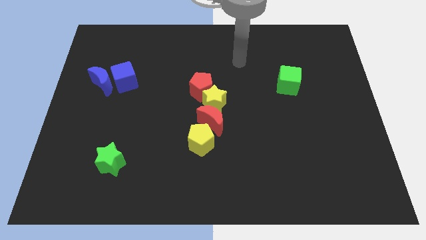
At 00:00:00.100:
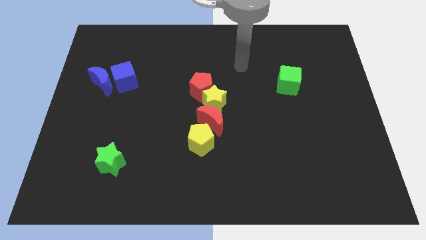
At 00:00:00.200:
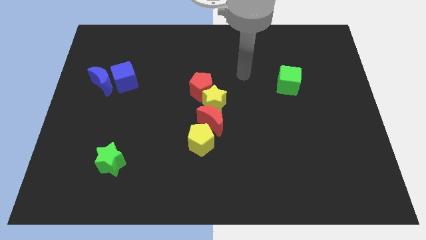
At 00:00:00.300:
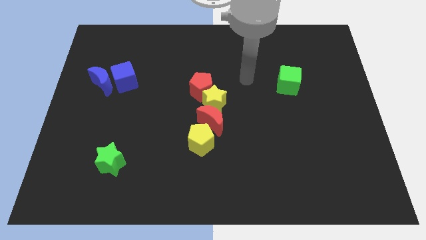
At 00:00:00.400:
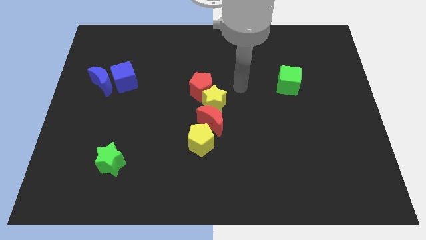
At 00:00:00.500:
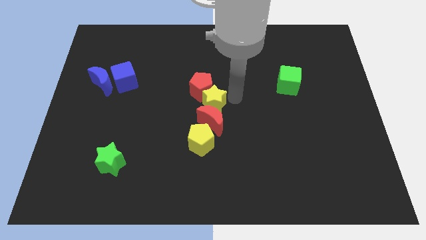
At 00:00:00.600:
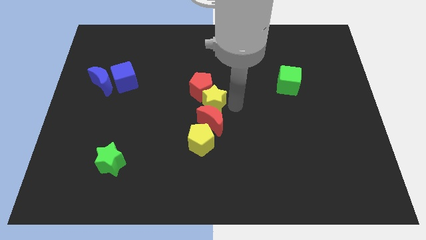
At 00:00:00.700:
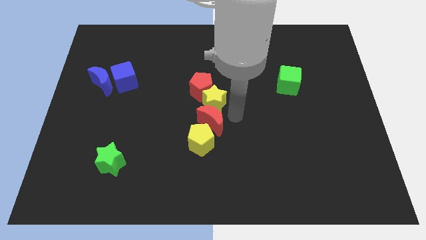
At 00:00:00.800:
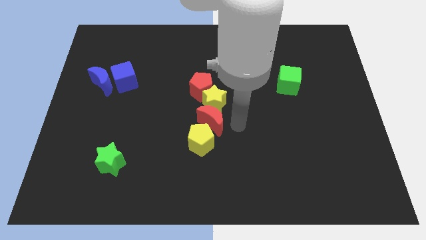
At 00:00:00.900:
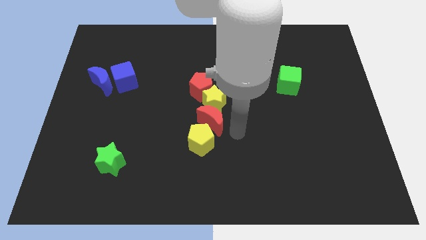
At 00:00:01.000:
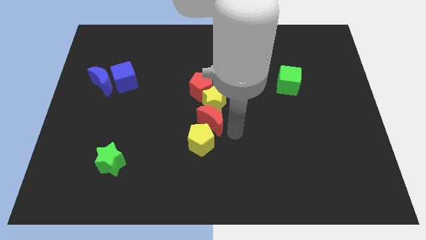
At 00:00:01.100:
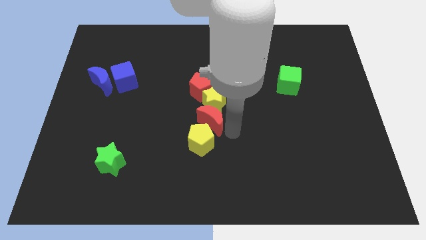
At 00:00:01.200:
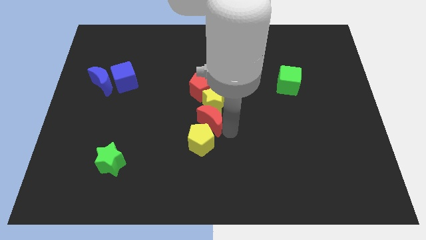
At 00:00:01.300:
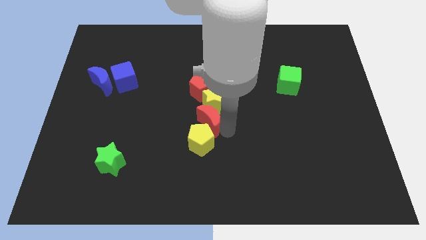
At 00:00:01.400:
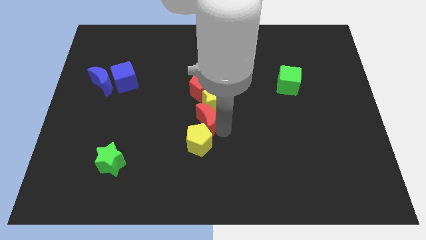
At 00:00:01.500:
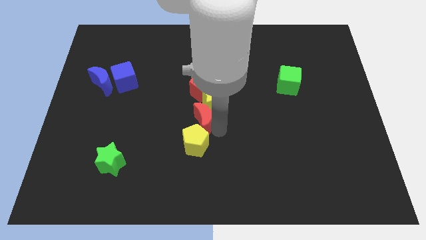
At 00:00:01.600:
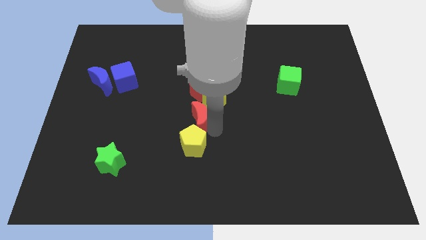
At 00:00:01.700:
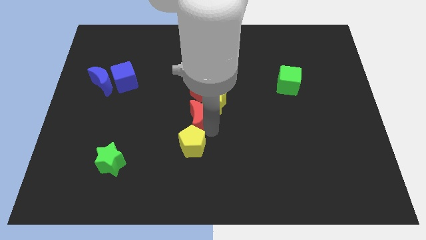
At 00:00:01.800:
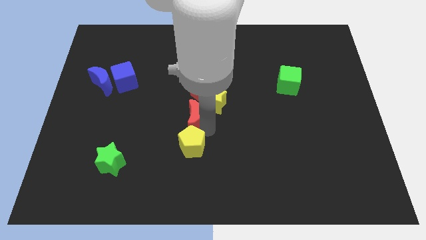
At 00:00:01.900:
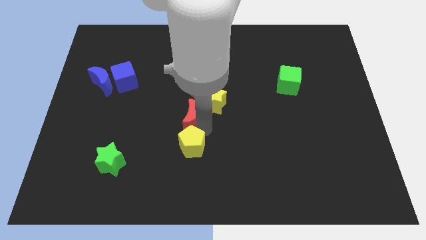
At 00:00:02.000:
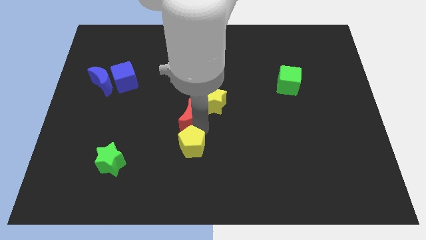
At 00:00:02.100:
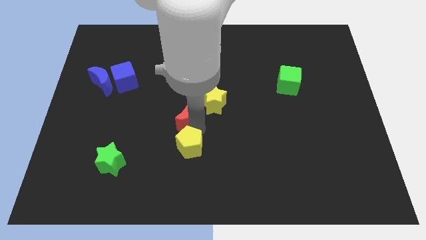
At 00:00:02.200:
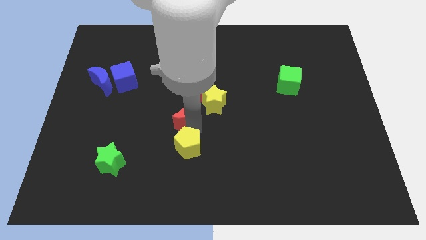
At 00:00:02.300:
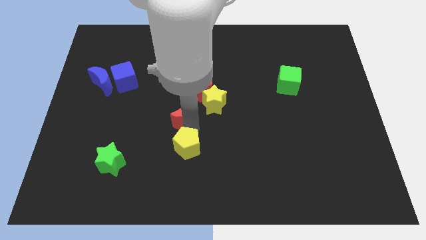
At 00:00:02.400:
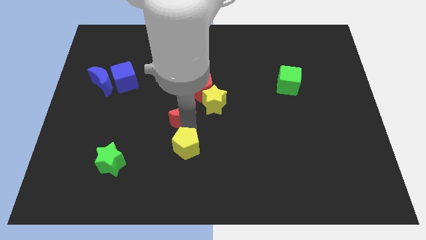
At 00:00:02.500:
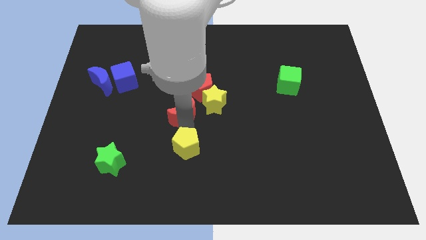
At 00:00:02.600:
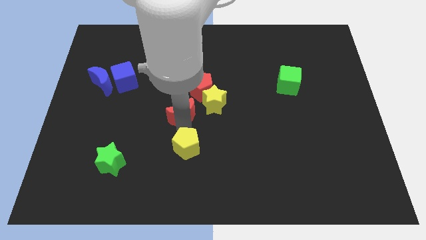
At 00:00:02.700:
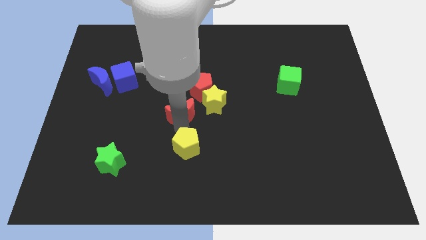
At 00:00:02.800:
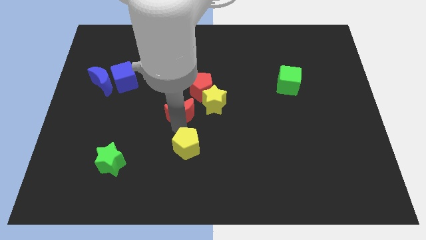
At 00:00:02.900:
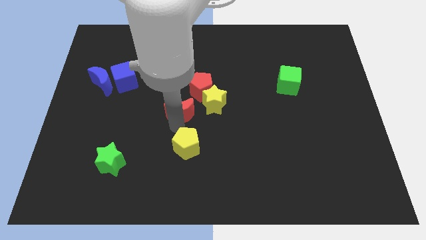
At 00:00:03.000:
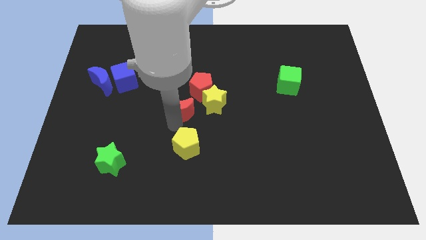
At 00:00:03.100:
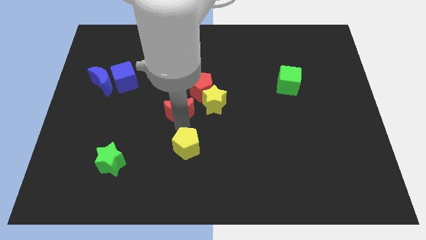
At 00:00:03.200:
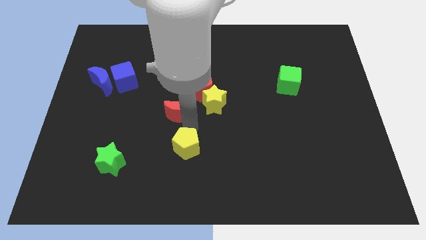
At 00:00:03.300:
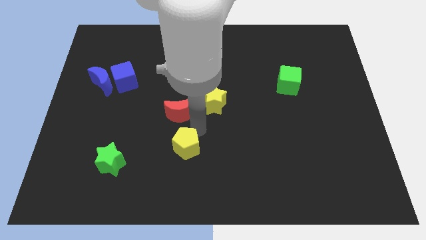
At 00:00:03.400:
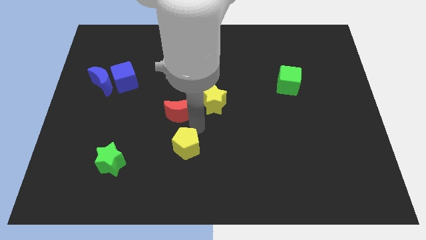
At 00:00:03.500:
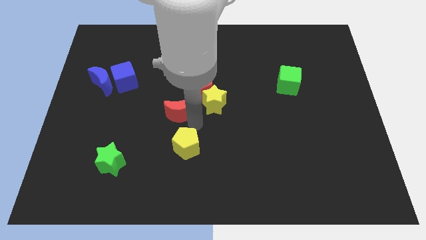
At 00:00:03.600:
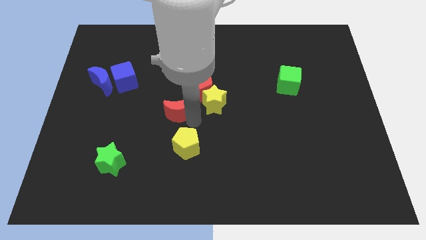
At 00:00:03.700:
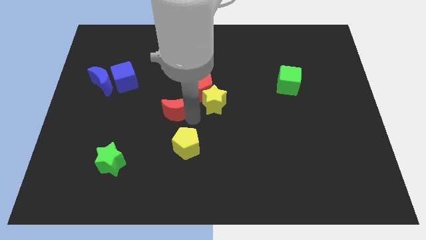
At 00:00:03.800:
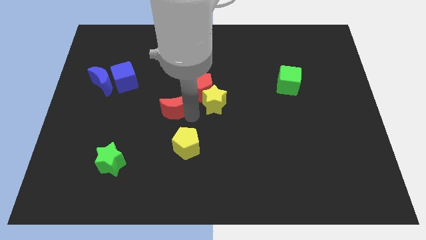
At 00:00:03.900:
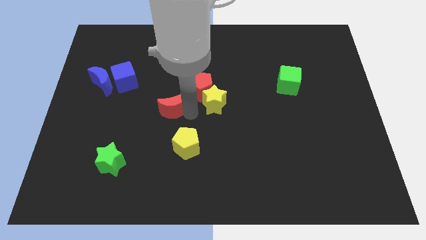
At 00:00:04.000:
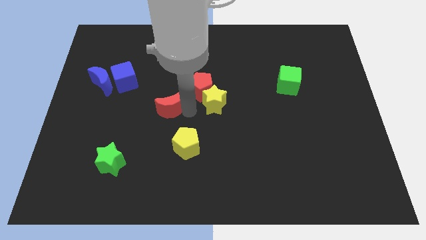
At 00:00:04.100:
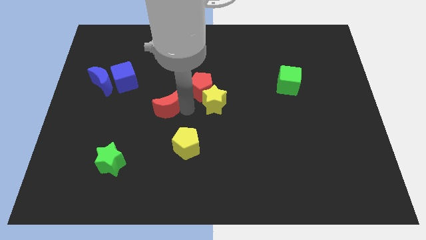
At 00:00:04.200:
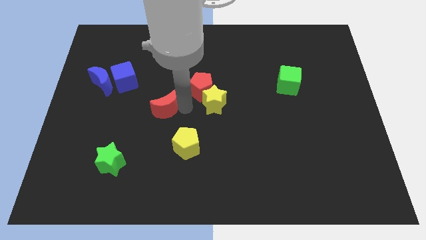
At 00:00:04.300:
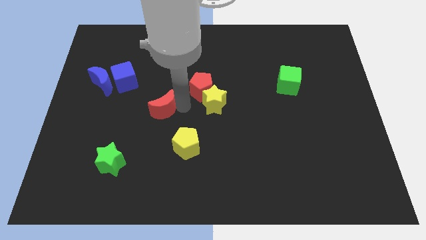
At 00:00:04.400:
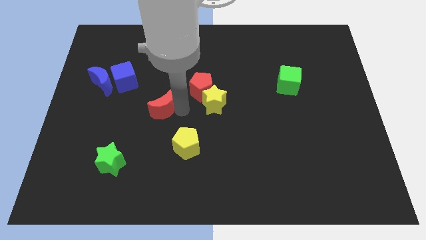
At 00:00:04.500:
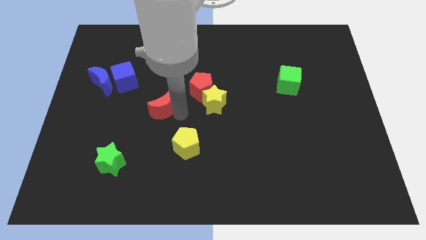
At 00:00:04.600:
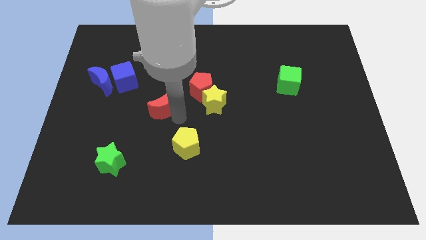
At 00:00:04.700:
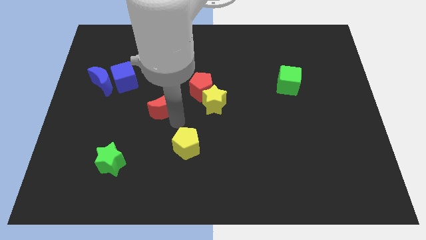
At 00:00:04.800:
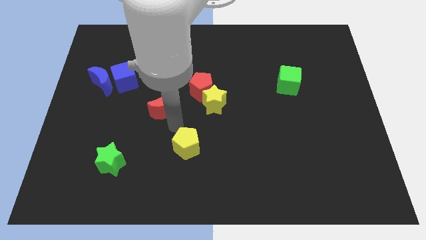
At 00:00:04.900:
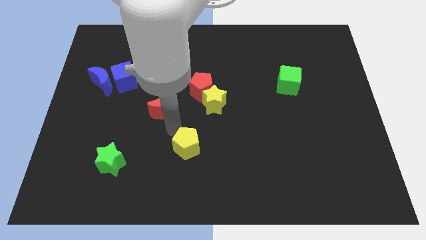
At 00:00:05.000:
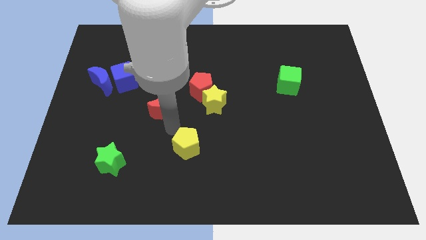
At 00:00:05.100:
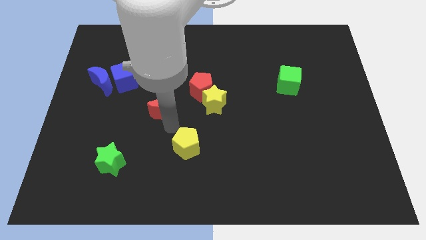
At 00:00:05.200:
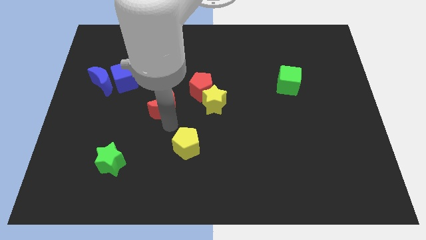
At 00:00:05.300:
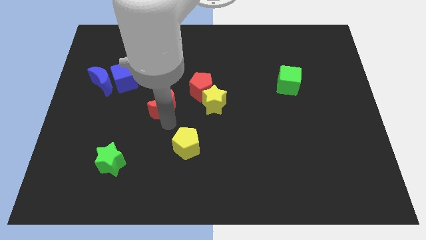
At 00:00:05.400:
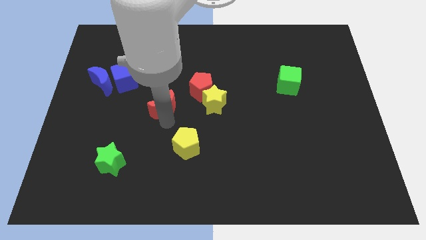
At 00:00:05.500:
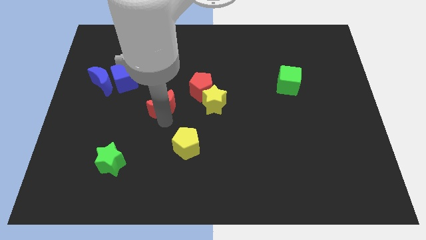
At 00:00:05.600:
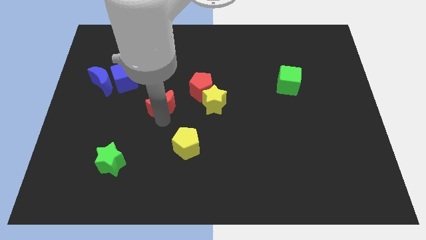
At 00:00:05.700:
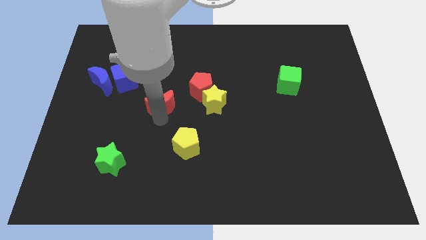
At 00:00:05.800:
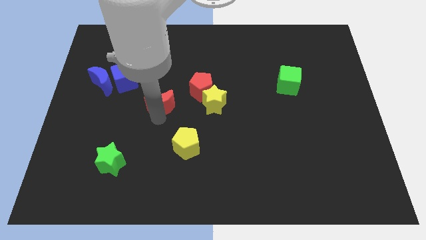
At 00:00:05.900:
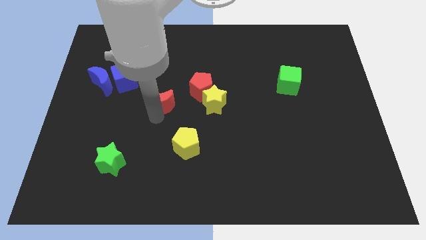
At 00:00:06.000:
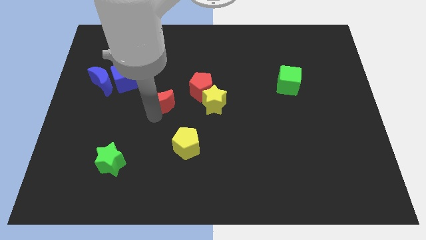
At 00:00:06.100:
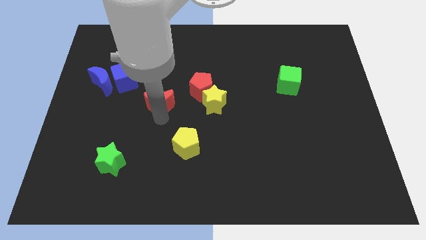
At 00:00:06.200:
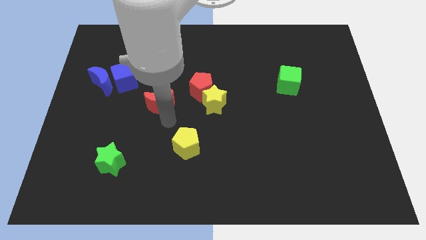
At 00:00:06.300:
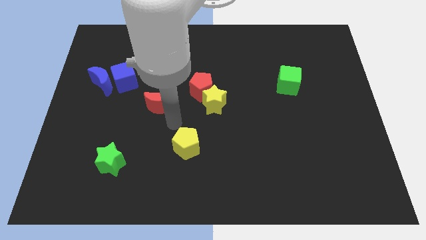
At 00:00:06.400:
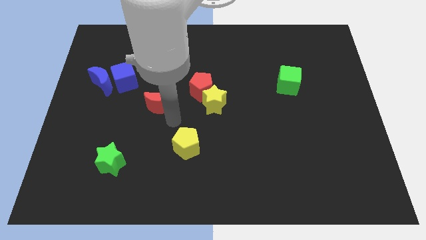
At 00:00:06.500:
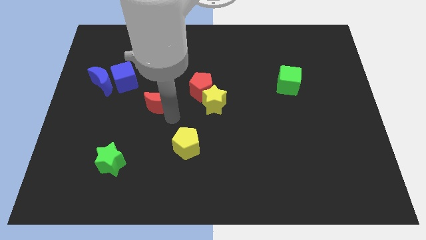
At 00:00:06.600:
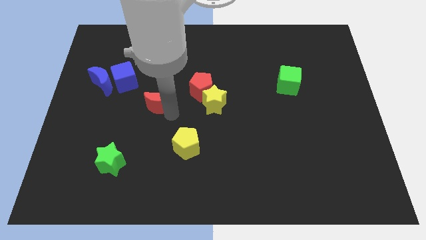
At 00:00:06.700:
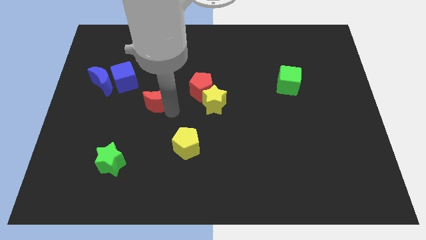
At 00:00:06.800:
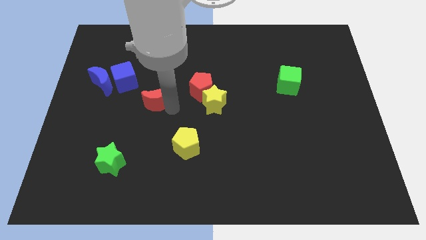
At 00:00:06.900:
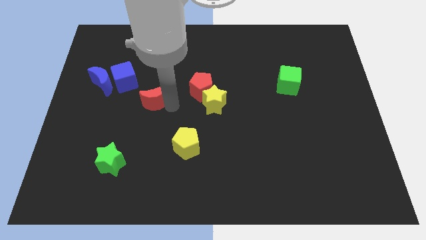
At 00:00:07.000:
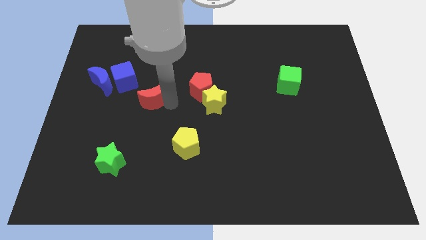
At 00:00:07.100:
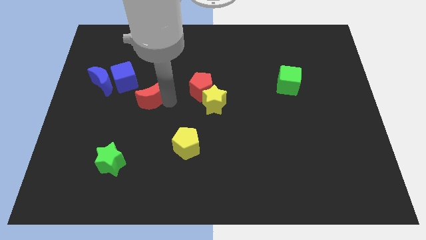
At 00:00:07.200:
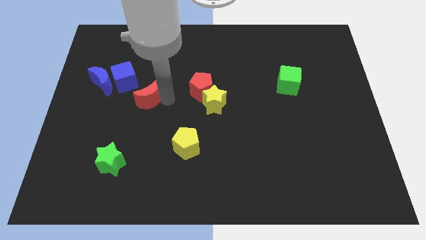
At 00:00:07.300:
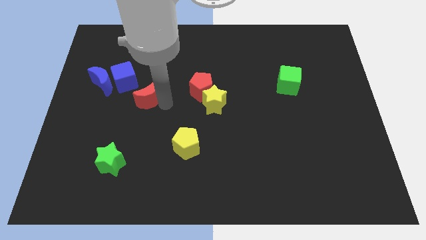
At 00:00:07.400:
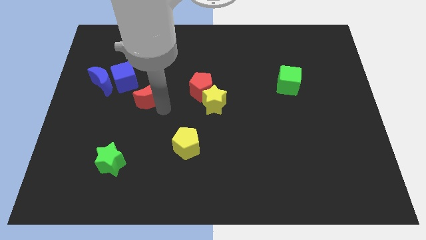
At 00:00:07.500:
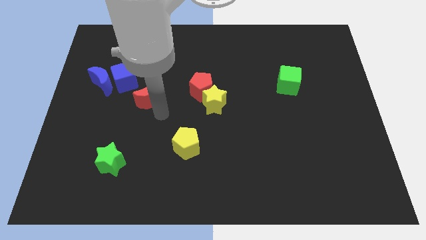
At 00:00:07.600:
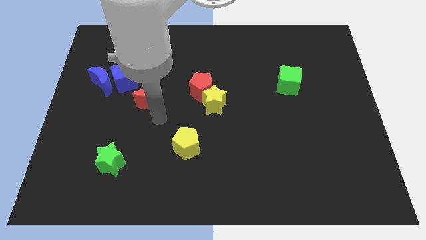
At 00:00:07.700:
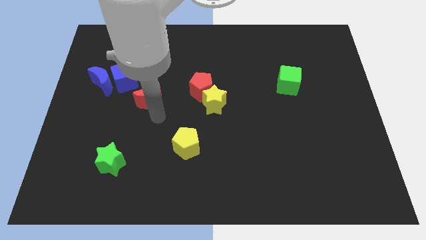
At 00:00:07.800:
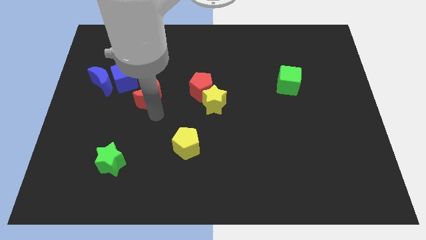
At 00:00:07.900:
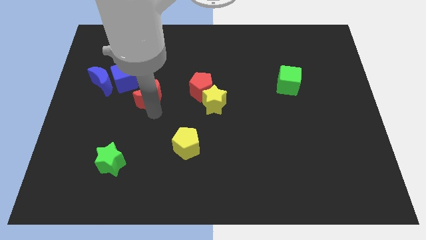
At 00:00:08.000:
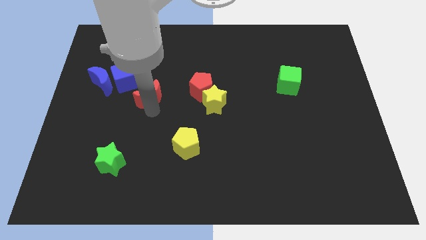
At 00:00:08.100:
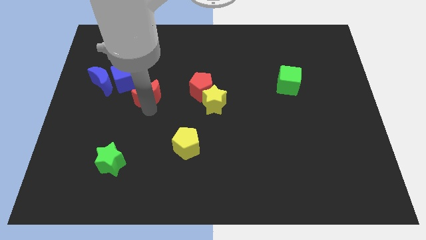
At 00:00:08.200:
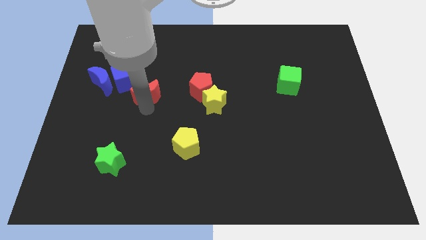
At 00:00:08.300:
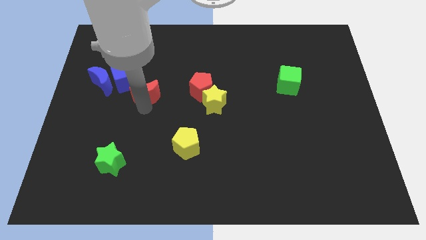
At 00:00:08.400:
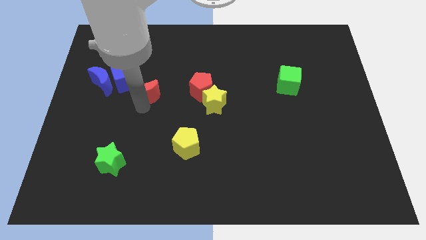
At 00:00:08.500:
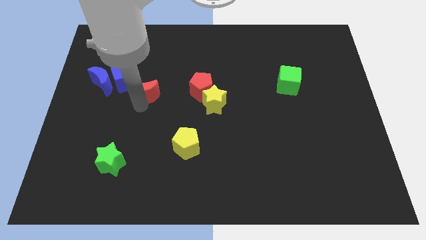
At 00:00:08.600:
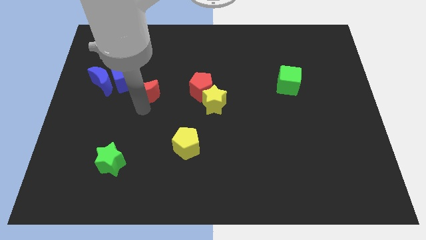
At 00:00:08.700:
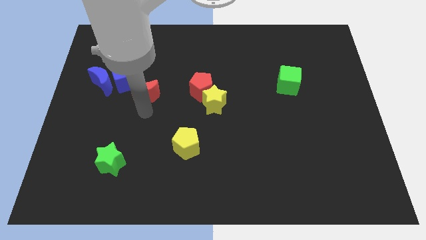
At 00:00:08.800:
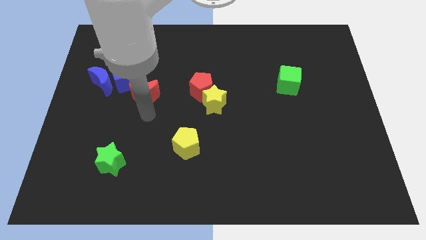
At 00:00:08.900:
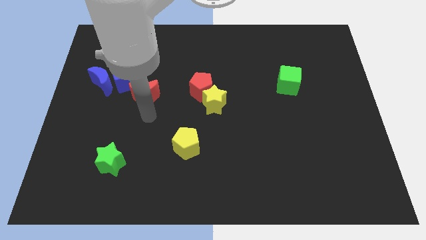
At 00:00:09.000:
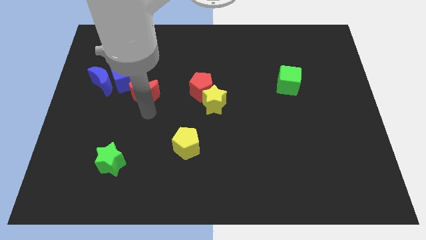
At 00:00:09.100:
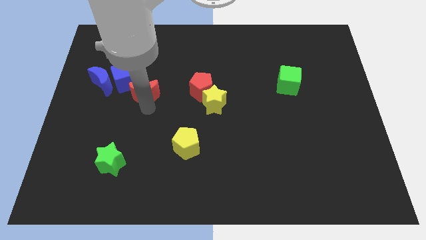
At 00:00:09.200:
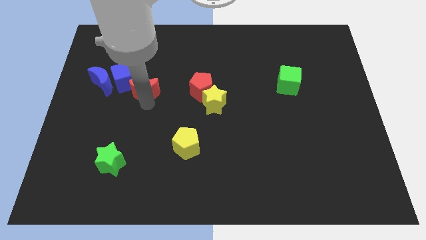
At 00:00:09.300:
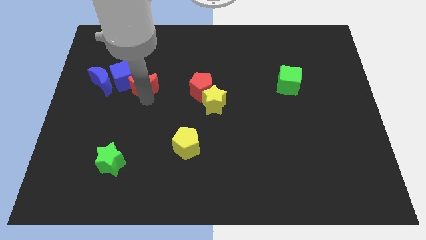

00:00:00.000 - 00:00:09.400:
move the red moon to the blue cube
